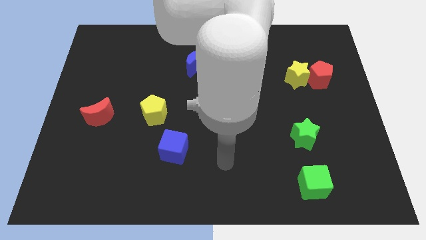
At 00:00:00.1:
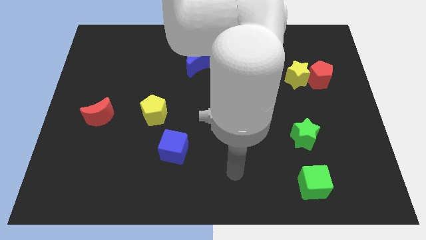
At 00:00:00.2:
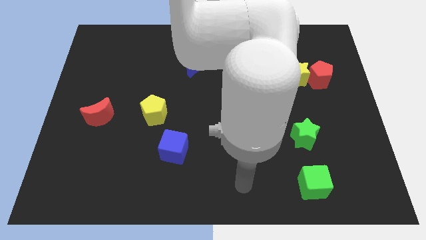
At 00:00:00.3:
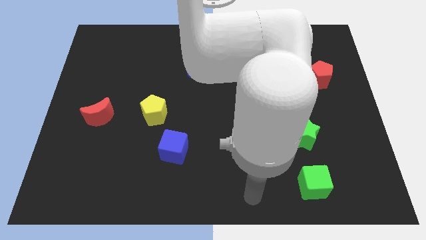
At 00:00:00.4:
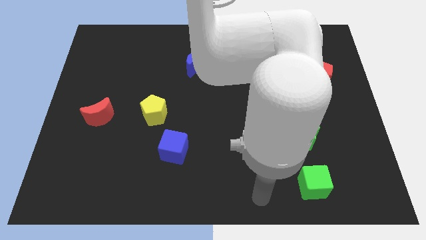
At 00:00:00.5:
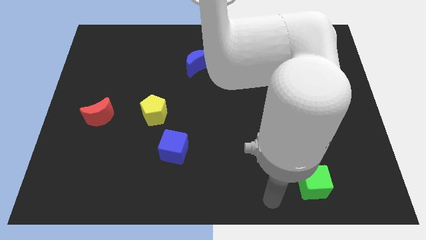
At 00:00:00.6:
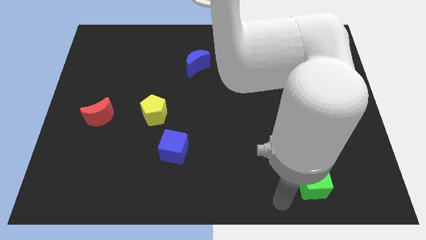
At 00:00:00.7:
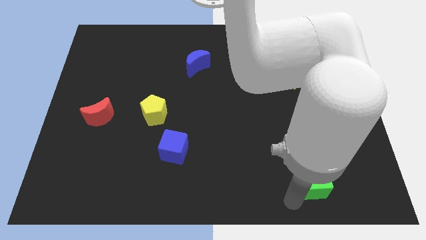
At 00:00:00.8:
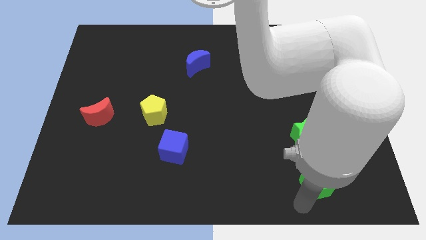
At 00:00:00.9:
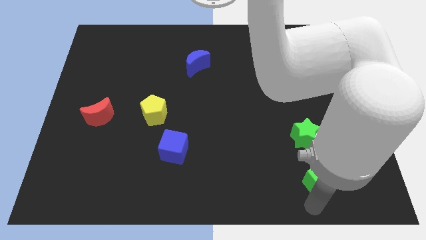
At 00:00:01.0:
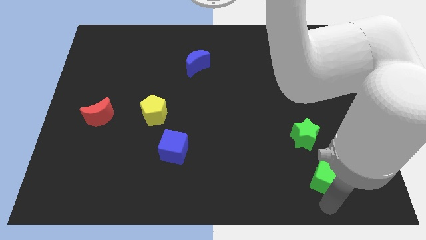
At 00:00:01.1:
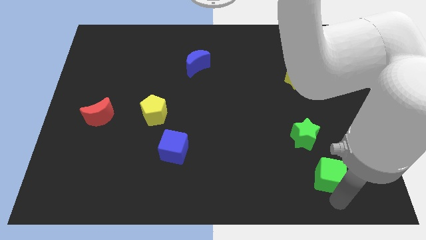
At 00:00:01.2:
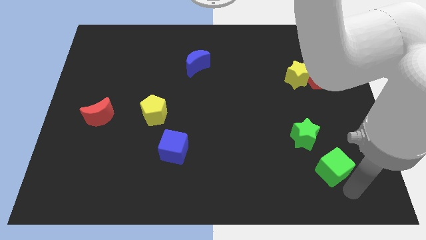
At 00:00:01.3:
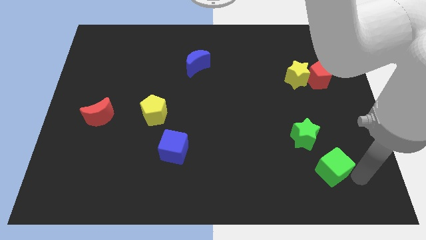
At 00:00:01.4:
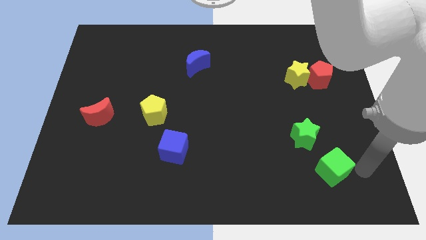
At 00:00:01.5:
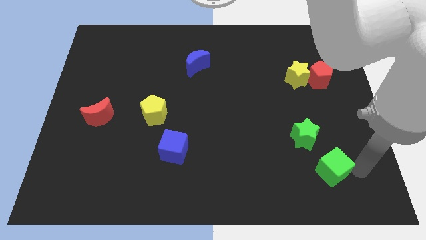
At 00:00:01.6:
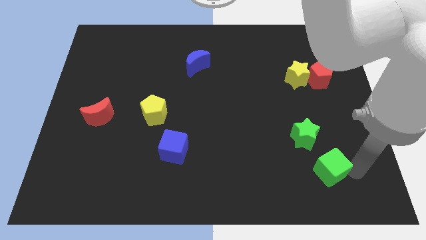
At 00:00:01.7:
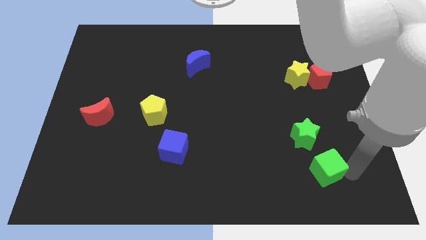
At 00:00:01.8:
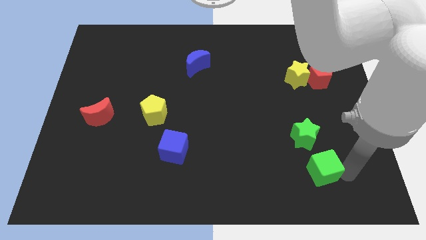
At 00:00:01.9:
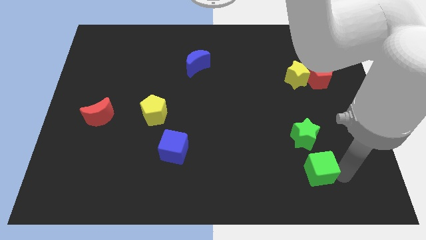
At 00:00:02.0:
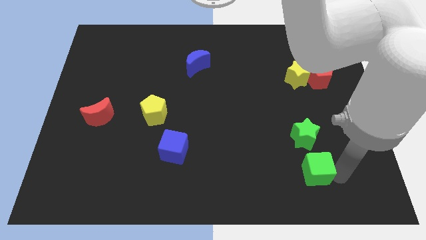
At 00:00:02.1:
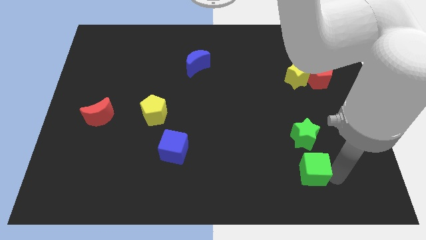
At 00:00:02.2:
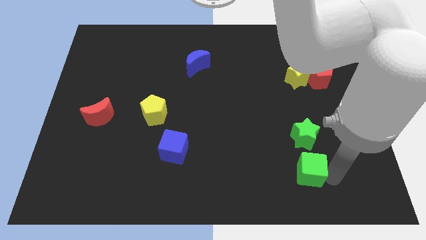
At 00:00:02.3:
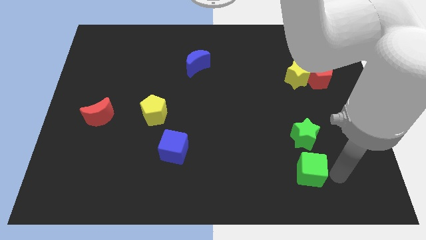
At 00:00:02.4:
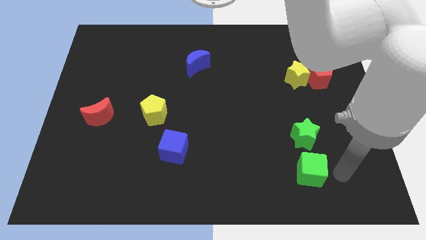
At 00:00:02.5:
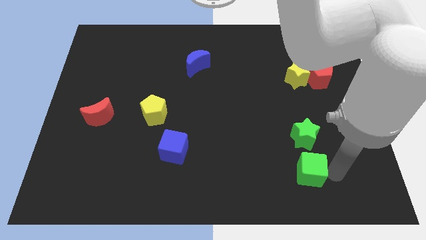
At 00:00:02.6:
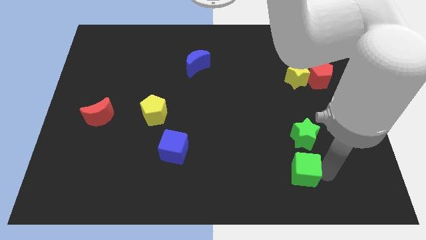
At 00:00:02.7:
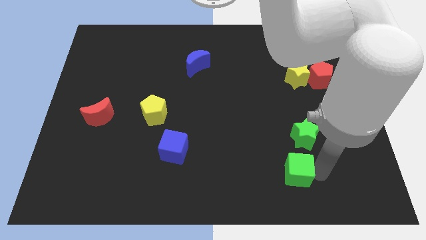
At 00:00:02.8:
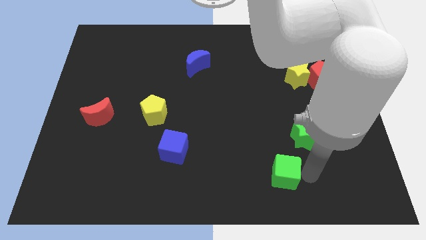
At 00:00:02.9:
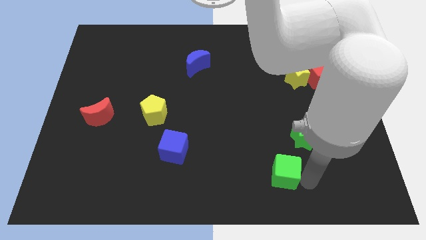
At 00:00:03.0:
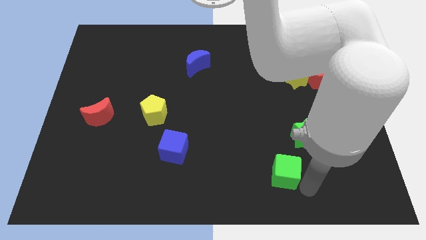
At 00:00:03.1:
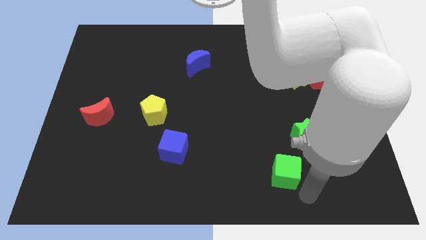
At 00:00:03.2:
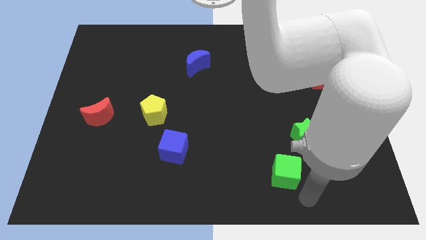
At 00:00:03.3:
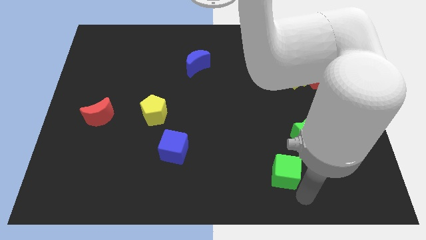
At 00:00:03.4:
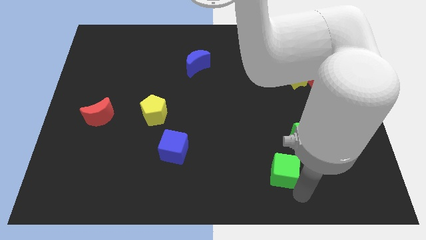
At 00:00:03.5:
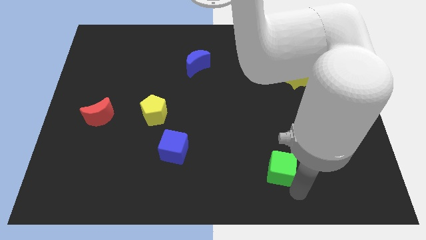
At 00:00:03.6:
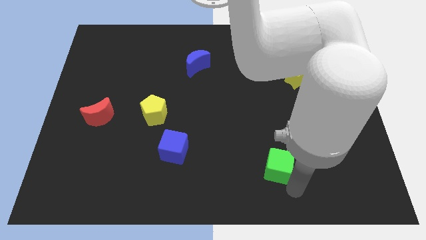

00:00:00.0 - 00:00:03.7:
slightly push the green cube upwards and left

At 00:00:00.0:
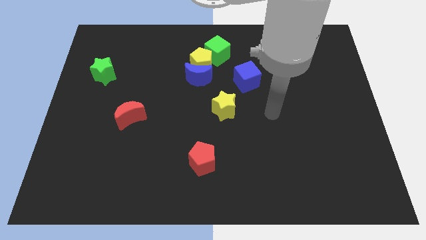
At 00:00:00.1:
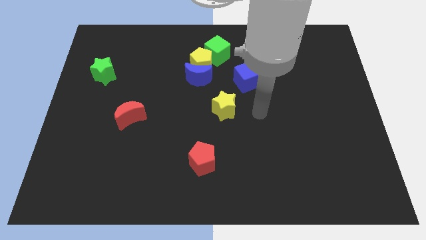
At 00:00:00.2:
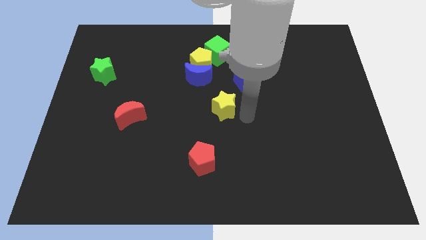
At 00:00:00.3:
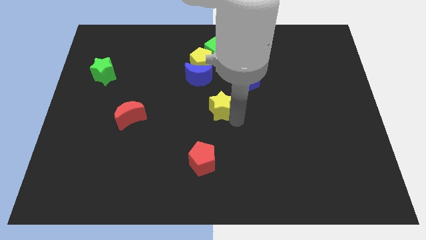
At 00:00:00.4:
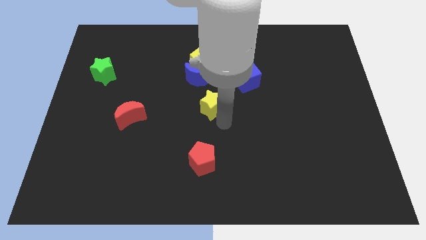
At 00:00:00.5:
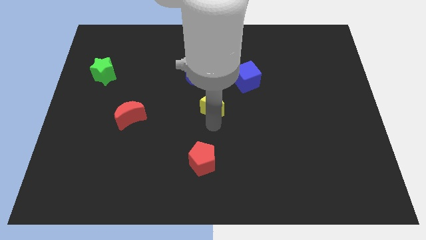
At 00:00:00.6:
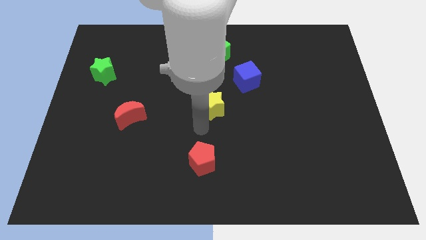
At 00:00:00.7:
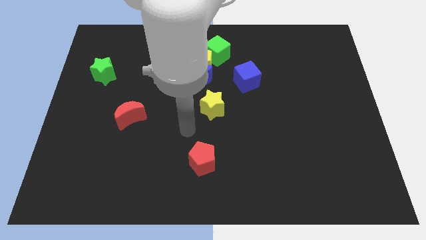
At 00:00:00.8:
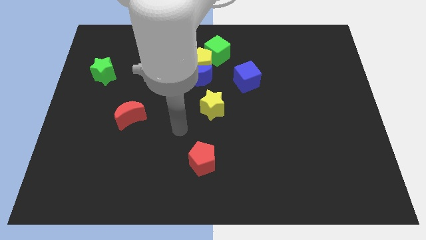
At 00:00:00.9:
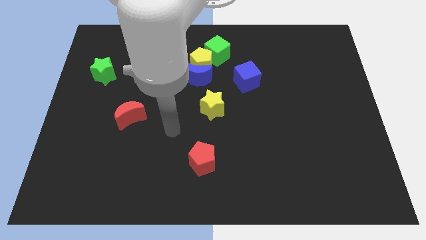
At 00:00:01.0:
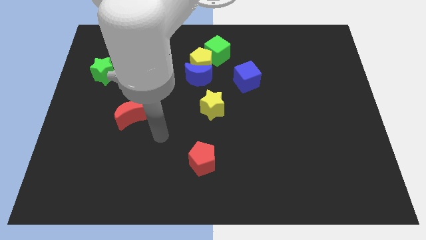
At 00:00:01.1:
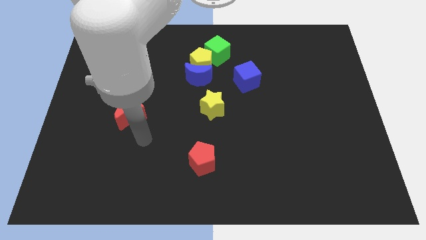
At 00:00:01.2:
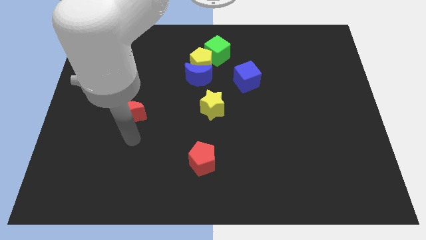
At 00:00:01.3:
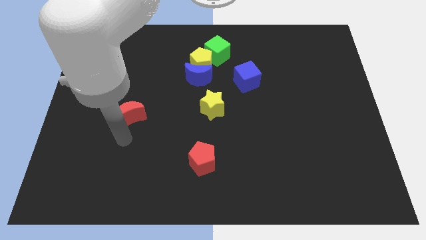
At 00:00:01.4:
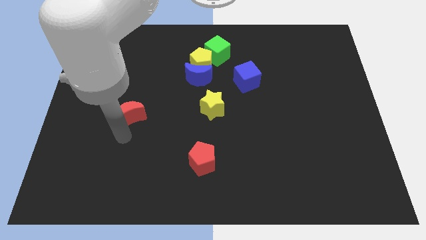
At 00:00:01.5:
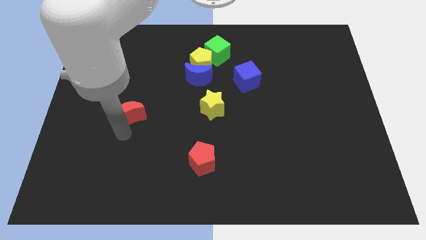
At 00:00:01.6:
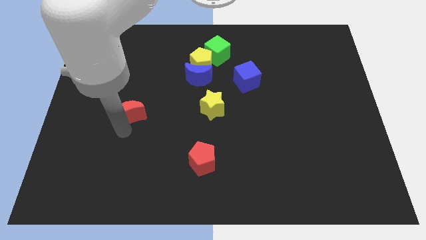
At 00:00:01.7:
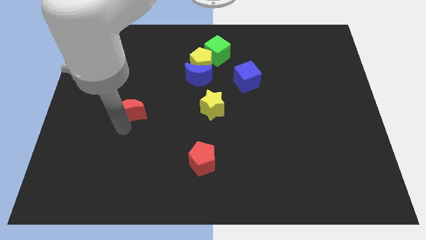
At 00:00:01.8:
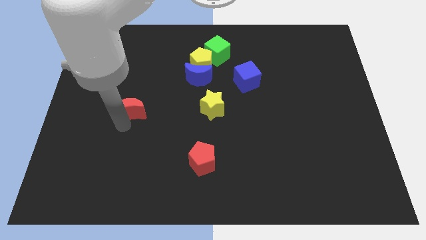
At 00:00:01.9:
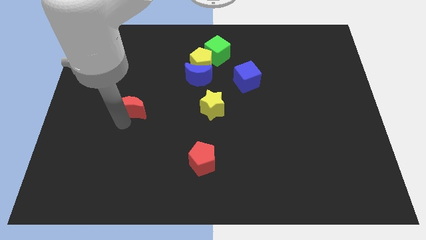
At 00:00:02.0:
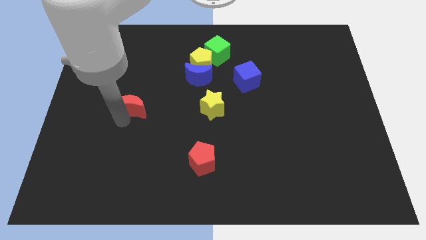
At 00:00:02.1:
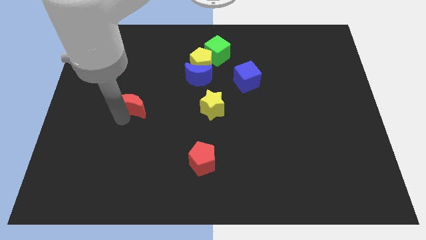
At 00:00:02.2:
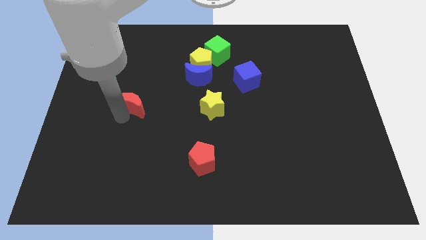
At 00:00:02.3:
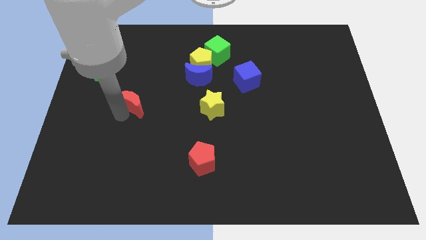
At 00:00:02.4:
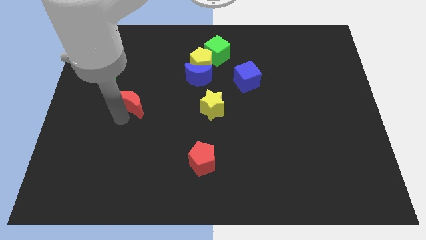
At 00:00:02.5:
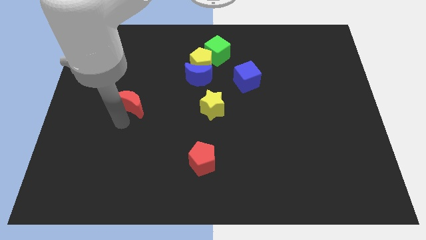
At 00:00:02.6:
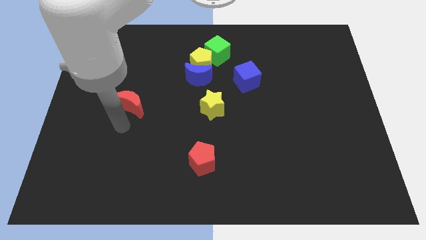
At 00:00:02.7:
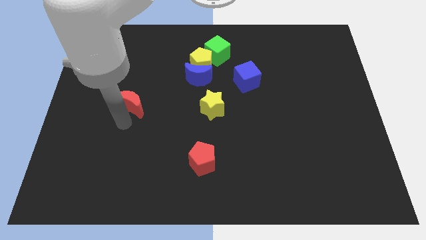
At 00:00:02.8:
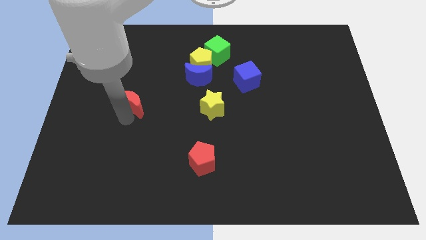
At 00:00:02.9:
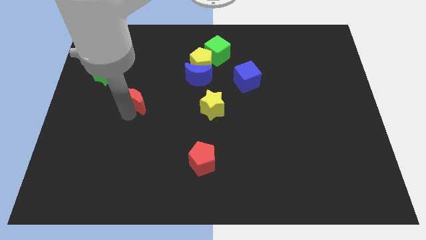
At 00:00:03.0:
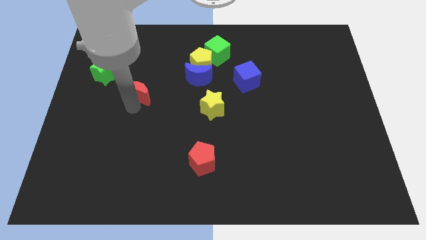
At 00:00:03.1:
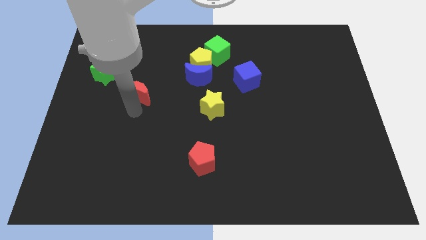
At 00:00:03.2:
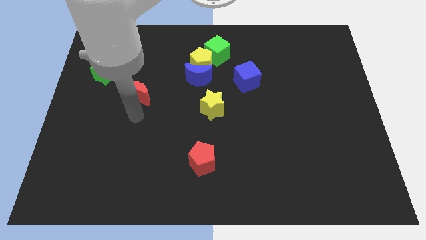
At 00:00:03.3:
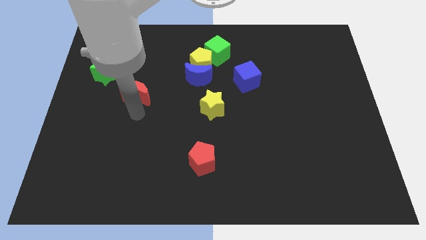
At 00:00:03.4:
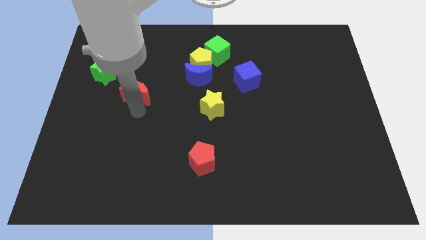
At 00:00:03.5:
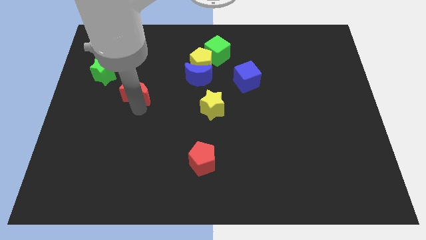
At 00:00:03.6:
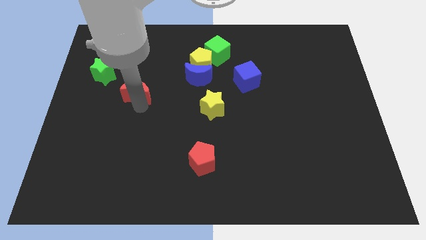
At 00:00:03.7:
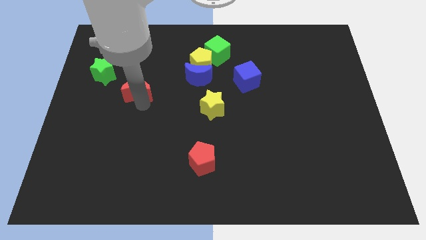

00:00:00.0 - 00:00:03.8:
slide the red moon a little bit upwards

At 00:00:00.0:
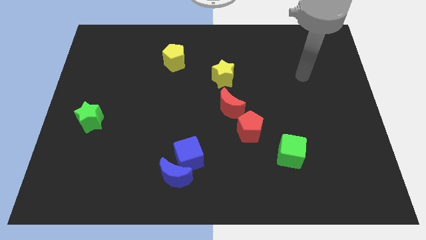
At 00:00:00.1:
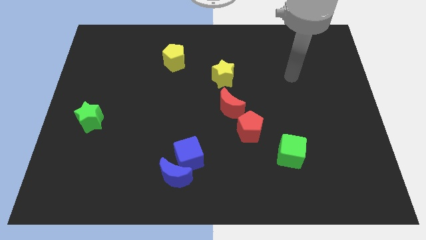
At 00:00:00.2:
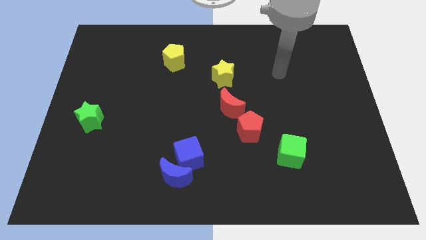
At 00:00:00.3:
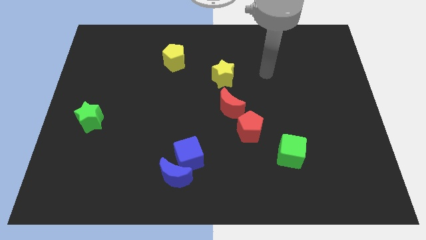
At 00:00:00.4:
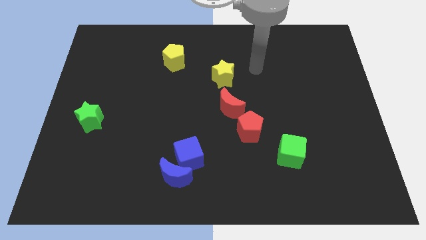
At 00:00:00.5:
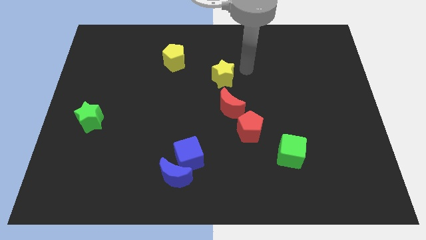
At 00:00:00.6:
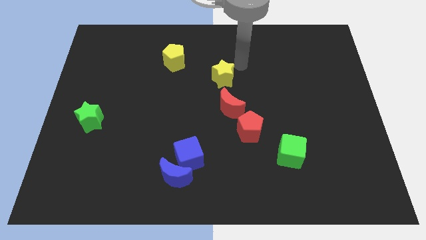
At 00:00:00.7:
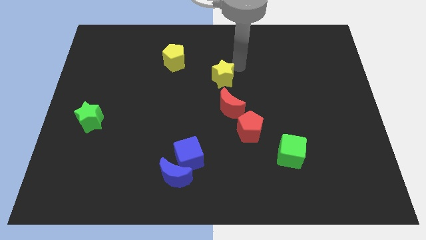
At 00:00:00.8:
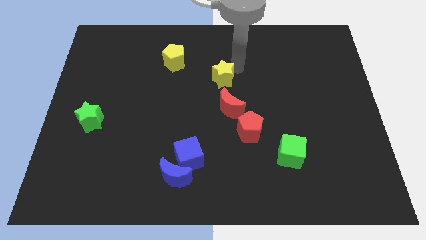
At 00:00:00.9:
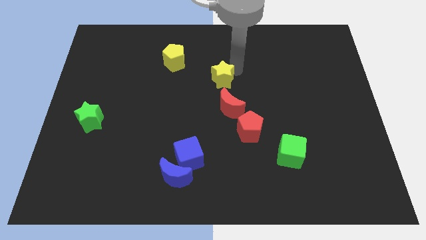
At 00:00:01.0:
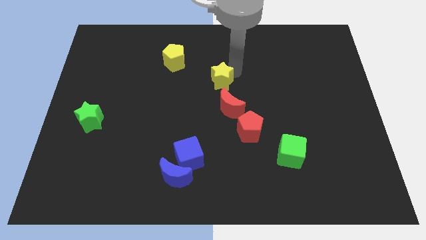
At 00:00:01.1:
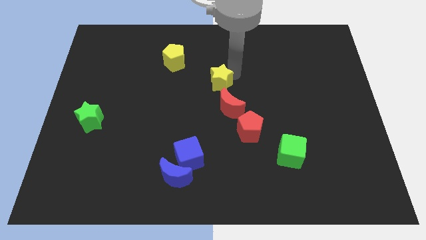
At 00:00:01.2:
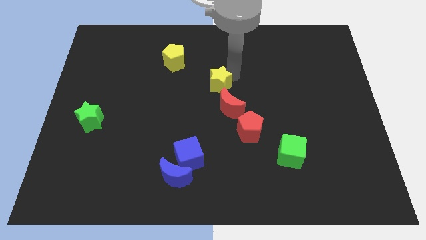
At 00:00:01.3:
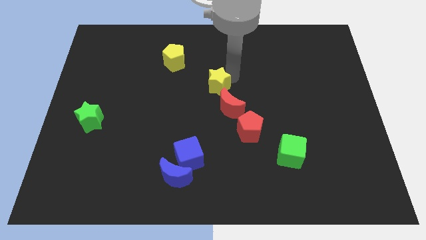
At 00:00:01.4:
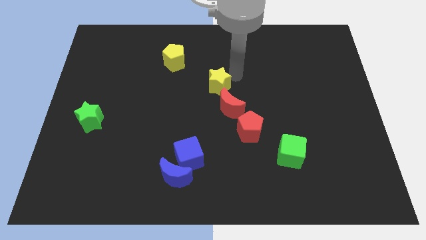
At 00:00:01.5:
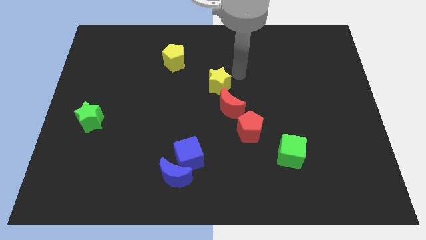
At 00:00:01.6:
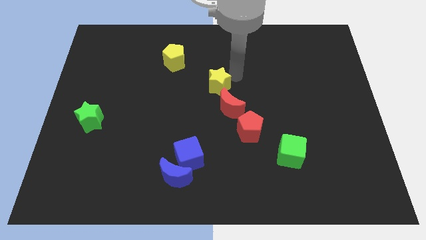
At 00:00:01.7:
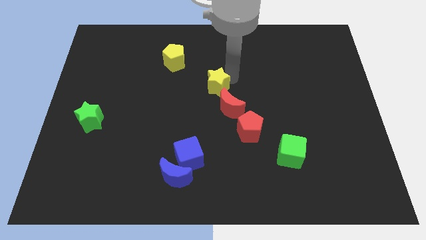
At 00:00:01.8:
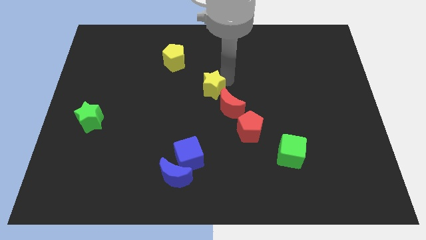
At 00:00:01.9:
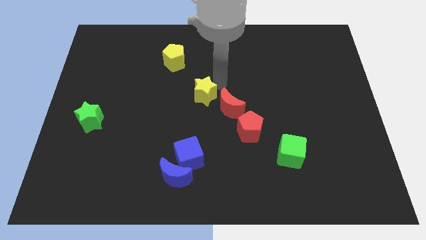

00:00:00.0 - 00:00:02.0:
slightly move the yellow star downwards and to the left
